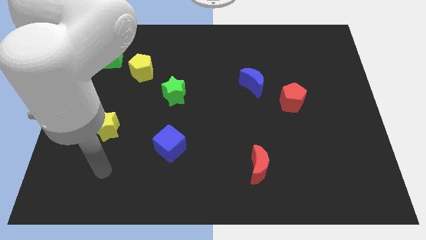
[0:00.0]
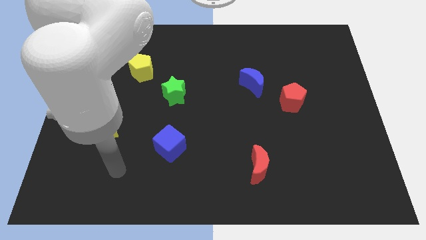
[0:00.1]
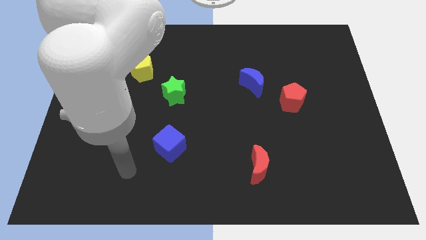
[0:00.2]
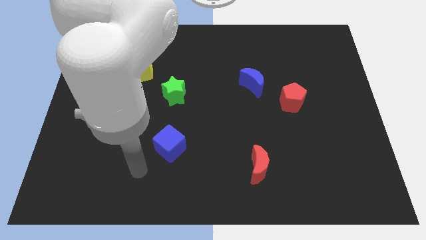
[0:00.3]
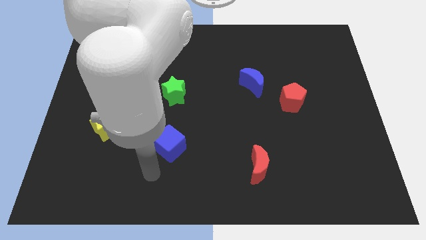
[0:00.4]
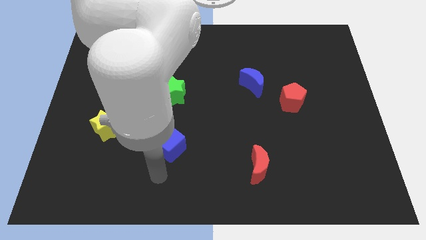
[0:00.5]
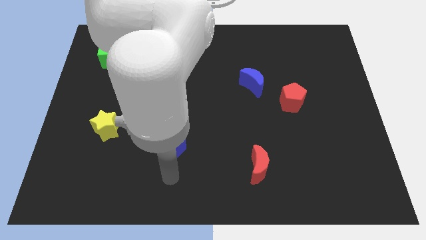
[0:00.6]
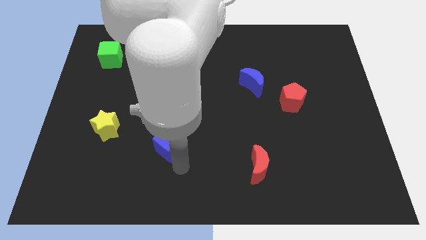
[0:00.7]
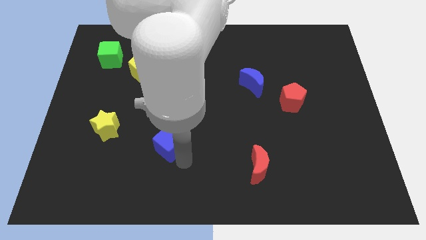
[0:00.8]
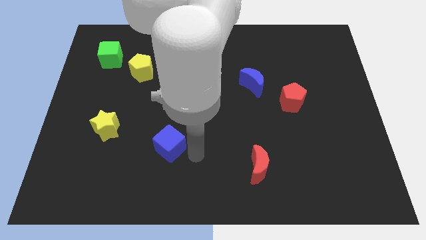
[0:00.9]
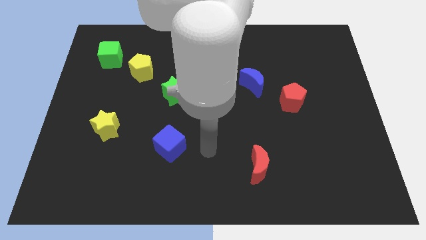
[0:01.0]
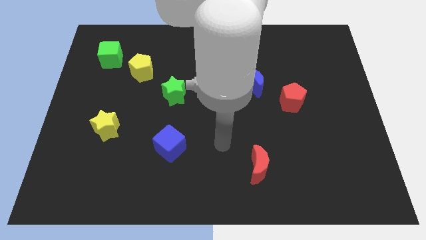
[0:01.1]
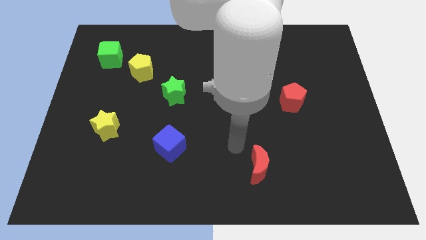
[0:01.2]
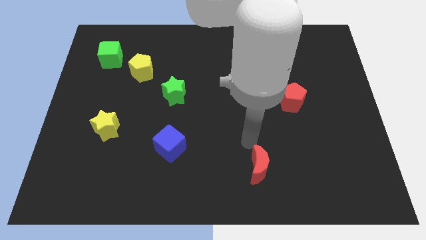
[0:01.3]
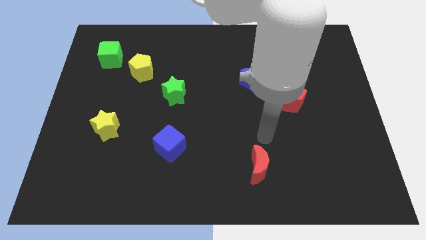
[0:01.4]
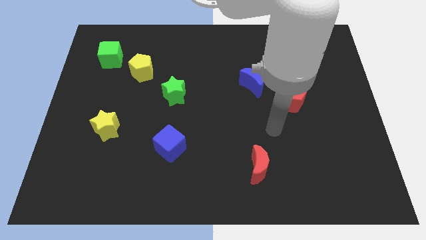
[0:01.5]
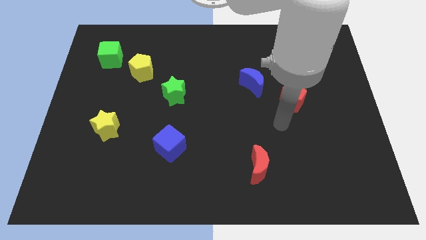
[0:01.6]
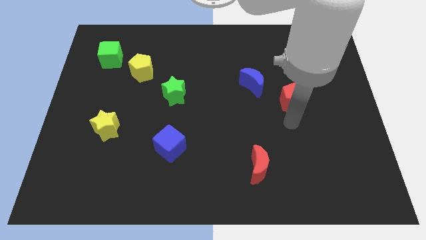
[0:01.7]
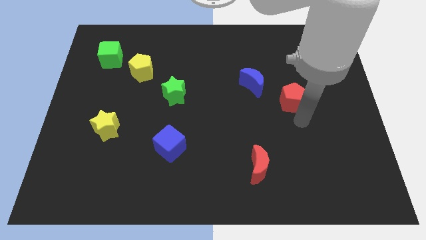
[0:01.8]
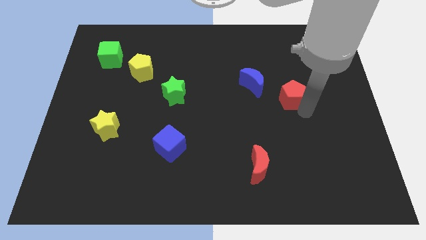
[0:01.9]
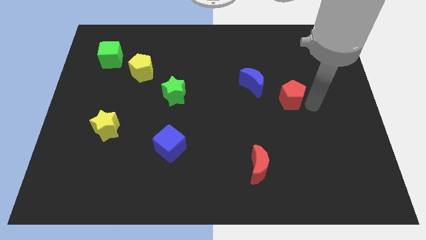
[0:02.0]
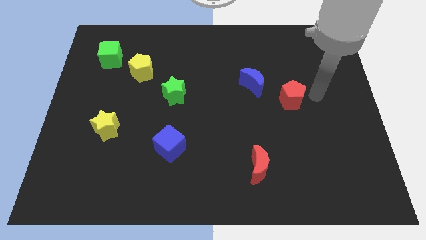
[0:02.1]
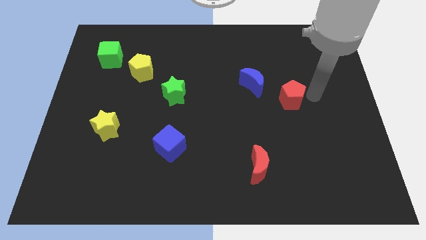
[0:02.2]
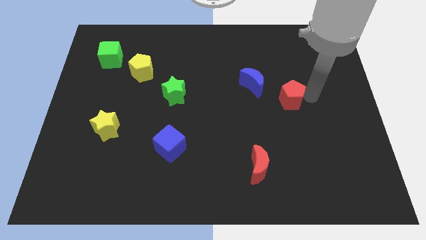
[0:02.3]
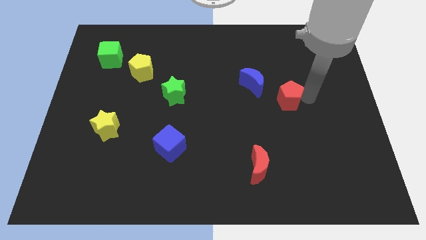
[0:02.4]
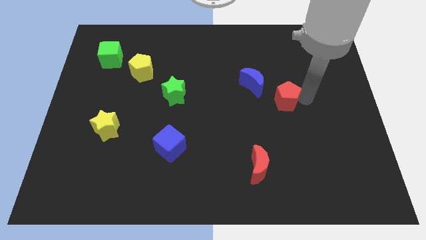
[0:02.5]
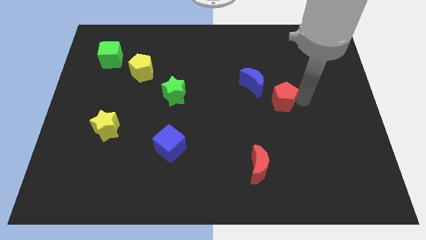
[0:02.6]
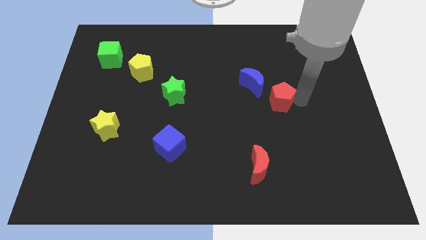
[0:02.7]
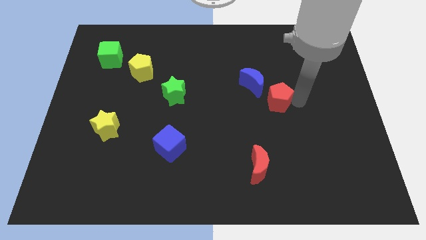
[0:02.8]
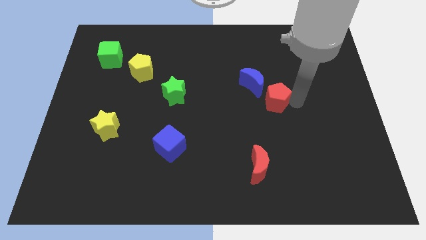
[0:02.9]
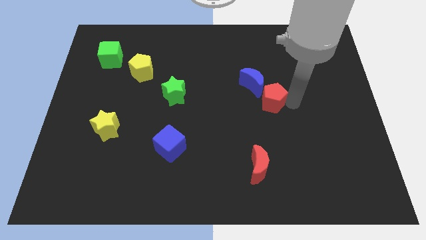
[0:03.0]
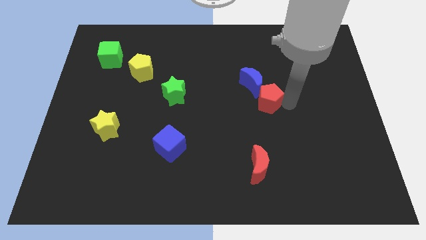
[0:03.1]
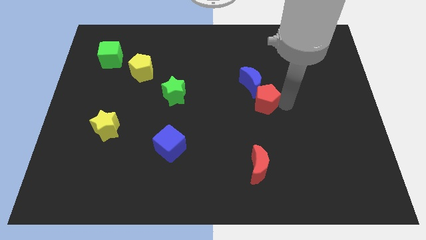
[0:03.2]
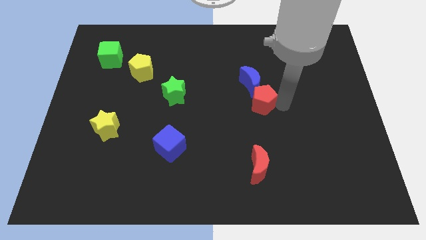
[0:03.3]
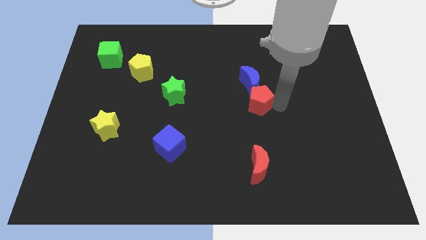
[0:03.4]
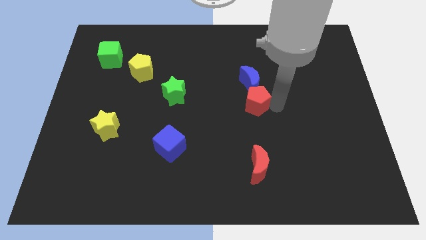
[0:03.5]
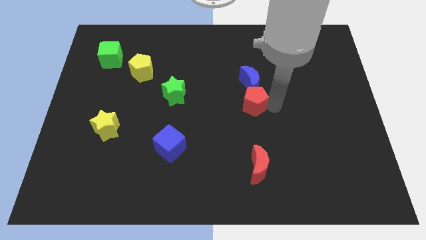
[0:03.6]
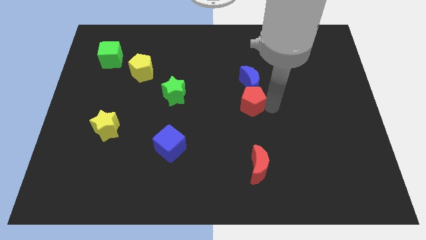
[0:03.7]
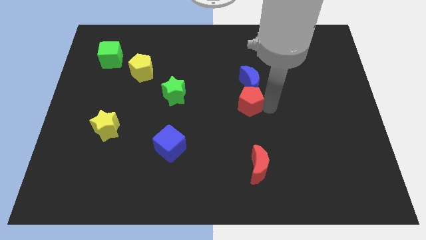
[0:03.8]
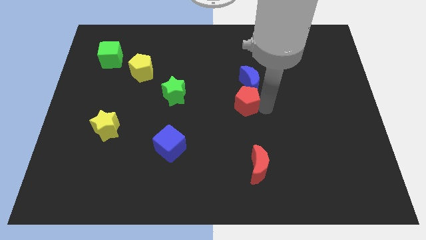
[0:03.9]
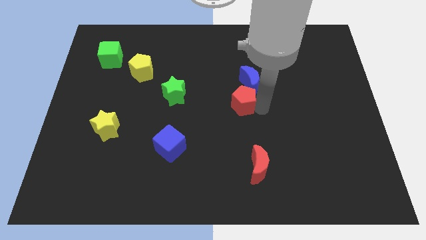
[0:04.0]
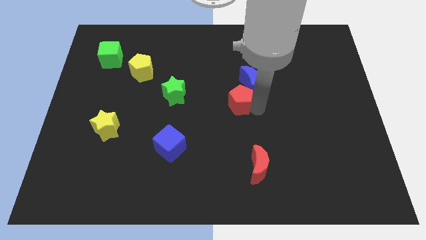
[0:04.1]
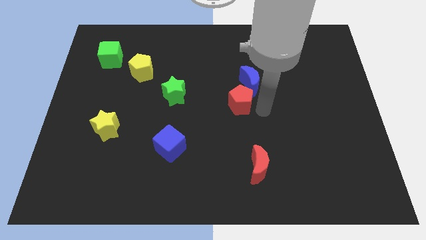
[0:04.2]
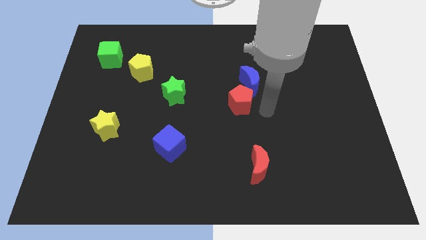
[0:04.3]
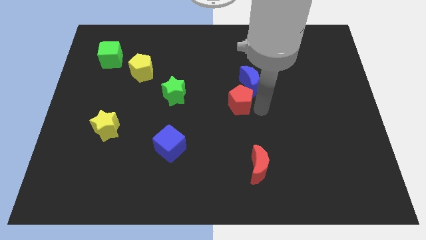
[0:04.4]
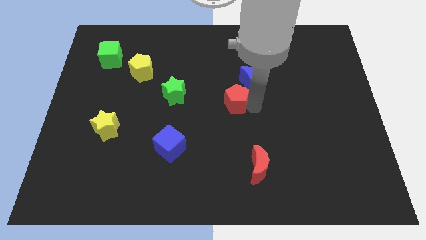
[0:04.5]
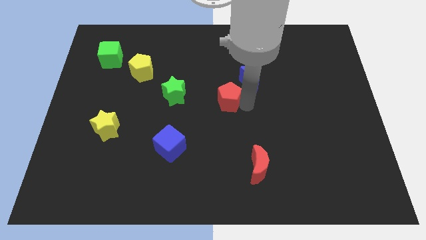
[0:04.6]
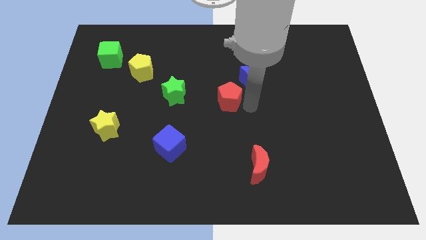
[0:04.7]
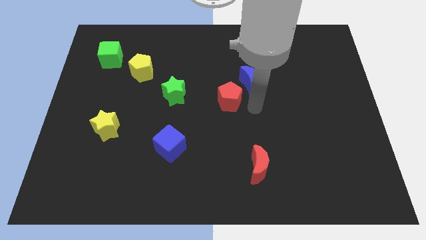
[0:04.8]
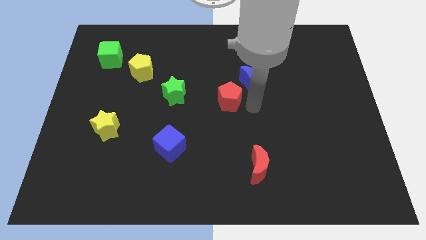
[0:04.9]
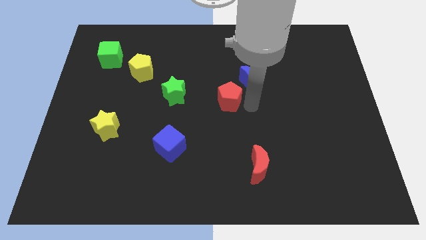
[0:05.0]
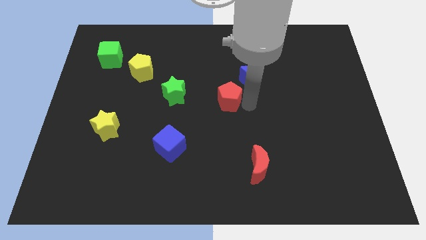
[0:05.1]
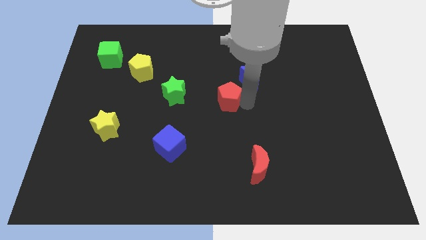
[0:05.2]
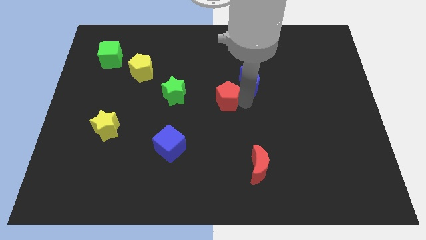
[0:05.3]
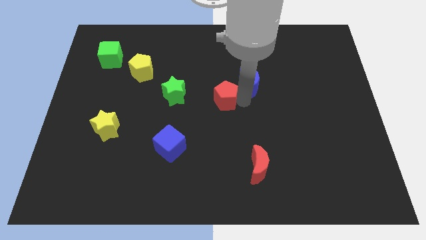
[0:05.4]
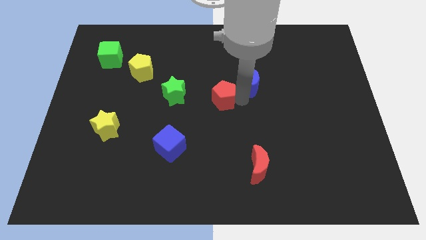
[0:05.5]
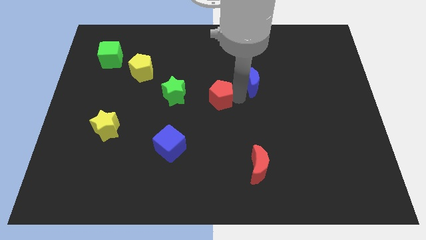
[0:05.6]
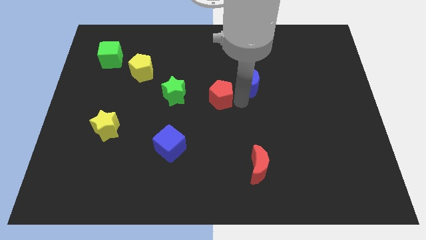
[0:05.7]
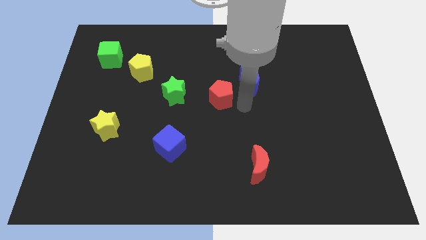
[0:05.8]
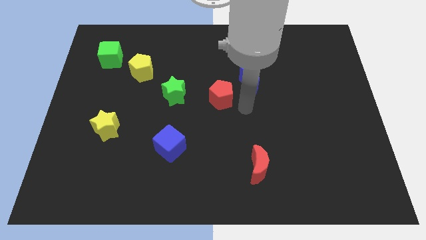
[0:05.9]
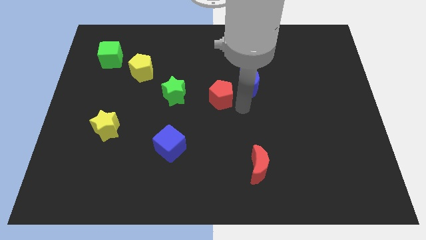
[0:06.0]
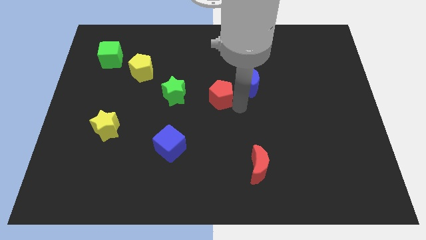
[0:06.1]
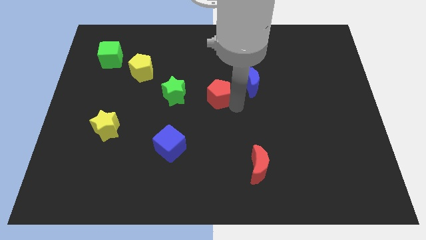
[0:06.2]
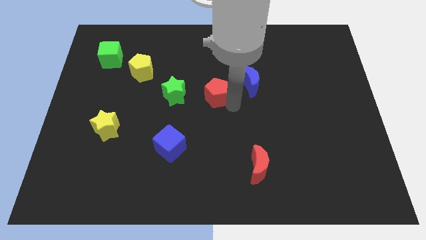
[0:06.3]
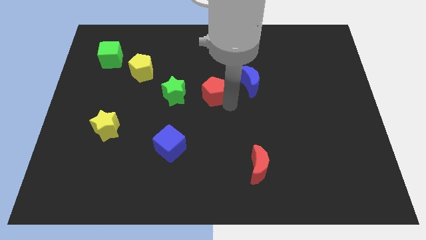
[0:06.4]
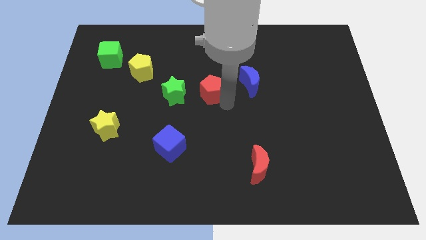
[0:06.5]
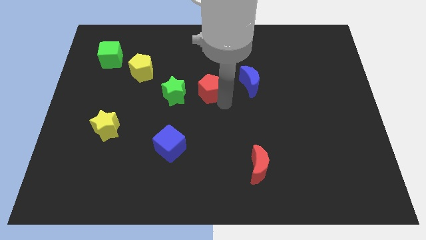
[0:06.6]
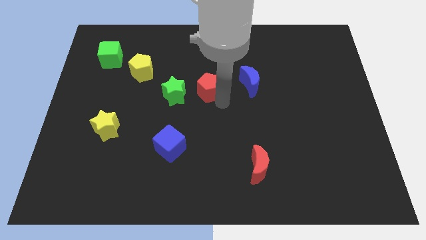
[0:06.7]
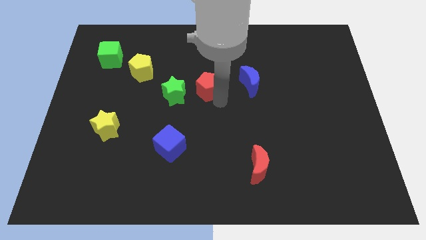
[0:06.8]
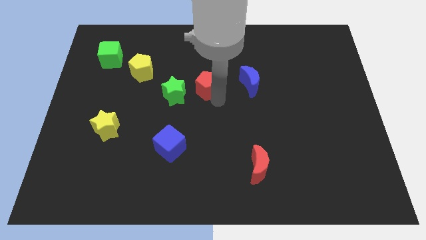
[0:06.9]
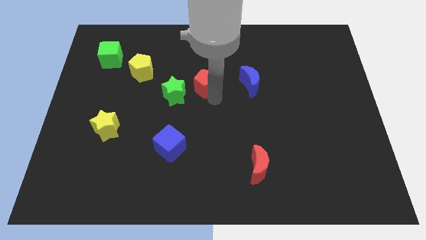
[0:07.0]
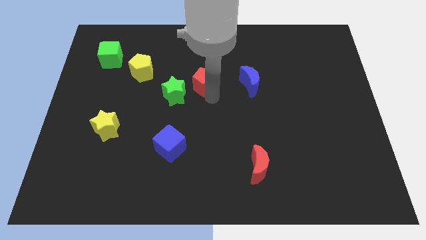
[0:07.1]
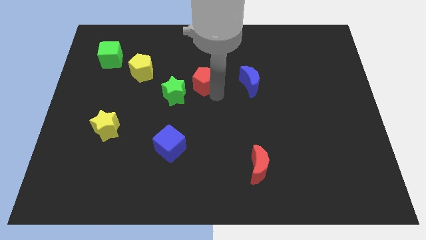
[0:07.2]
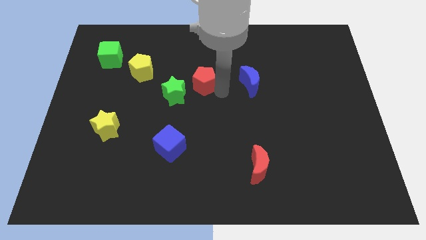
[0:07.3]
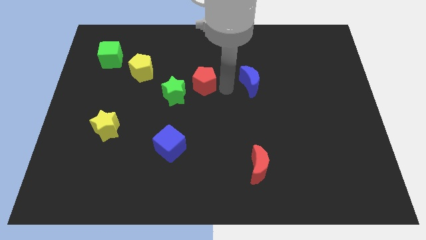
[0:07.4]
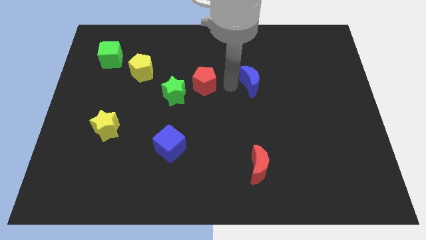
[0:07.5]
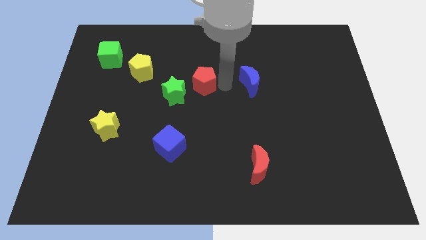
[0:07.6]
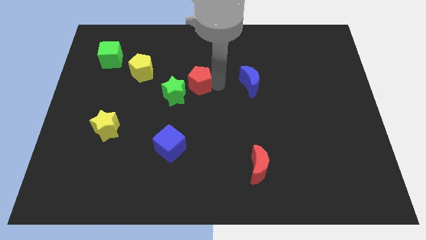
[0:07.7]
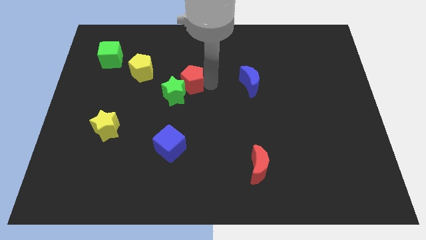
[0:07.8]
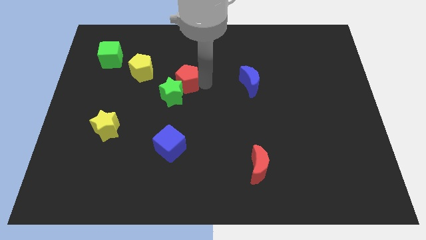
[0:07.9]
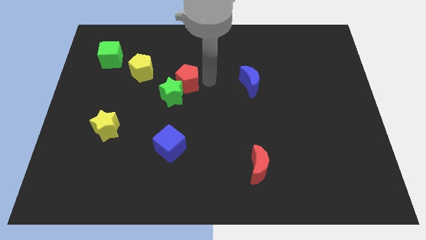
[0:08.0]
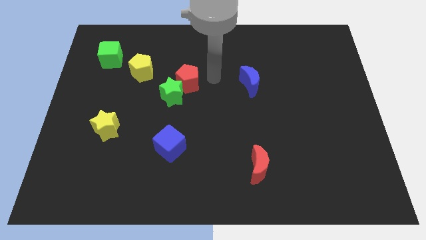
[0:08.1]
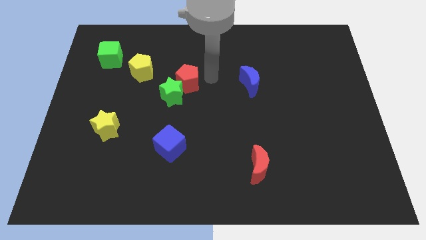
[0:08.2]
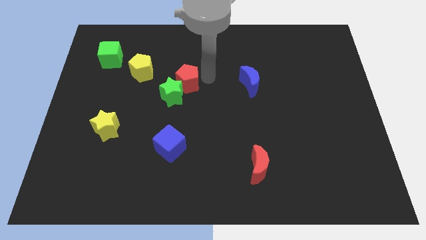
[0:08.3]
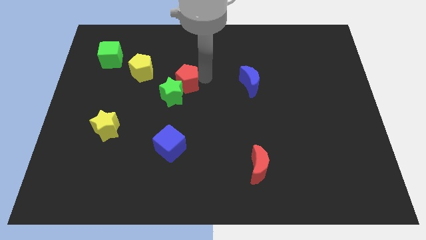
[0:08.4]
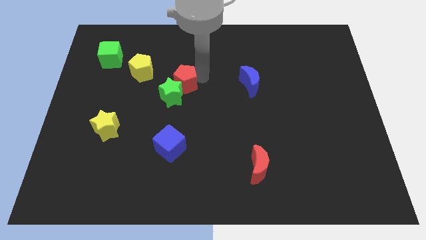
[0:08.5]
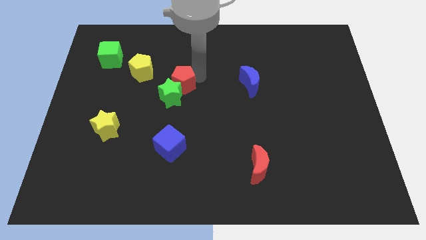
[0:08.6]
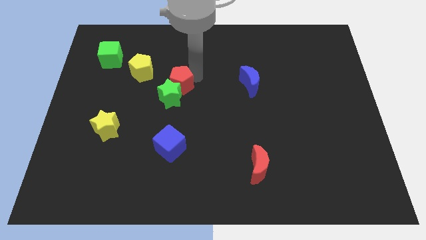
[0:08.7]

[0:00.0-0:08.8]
move the red pentagon diagonally down and to the right of the yellow pentagon
